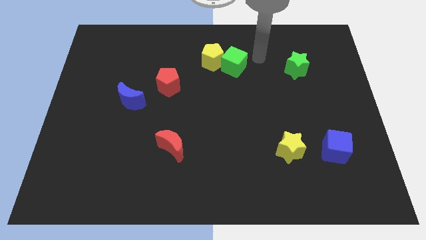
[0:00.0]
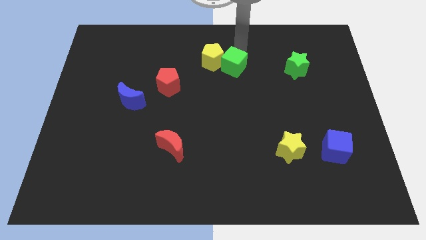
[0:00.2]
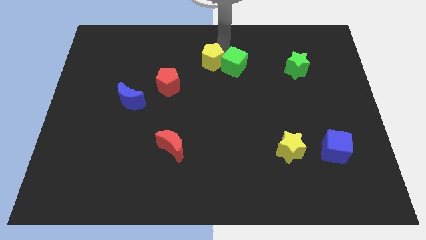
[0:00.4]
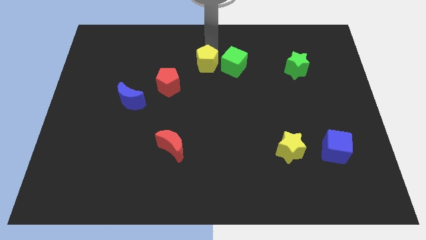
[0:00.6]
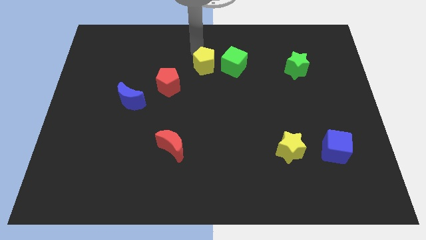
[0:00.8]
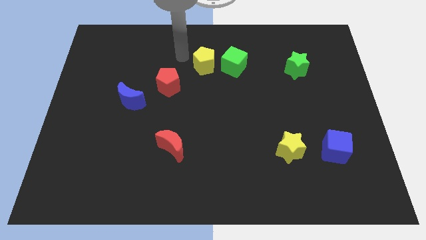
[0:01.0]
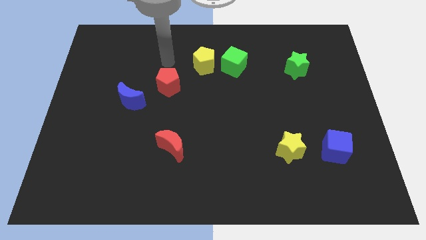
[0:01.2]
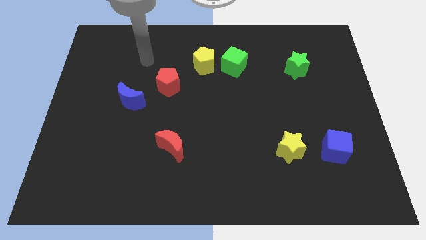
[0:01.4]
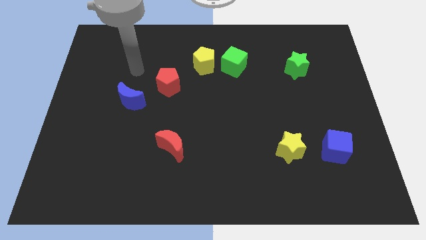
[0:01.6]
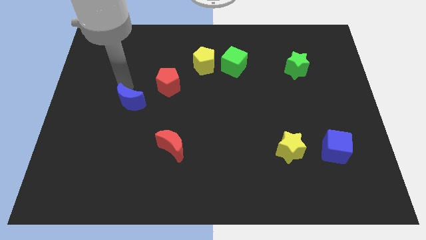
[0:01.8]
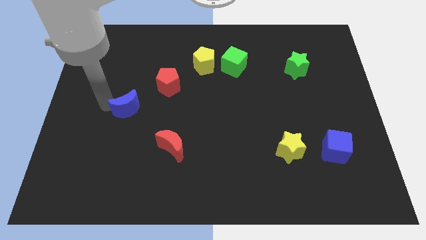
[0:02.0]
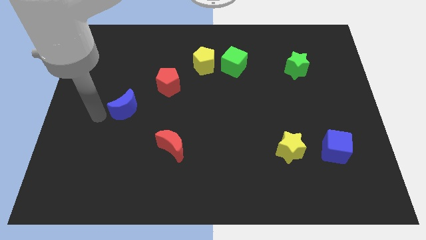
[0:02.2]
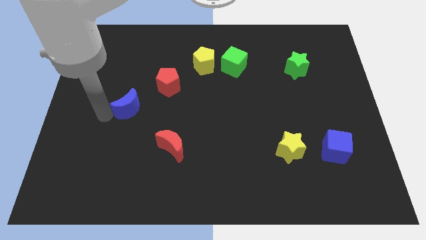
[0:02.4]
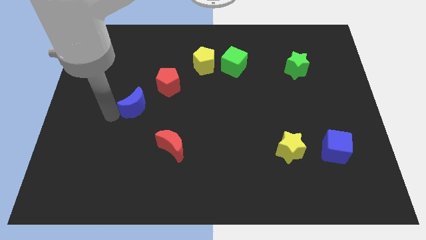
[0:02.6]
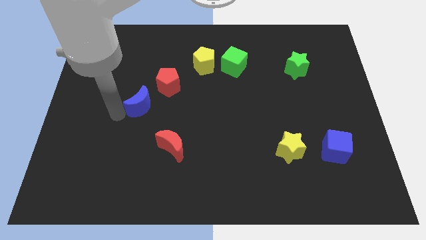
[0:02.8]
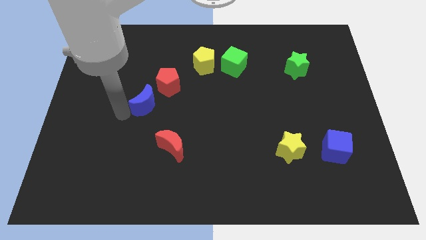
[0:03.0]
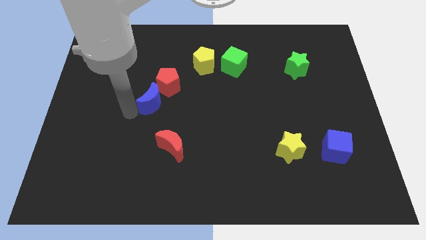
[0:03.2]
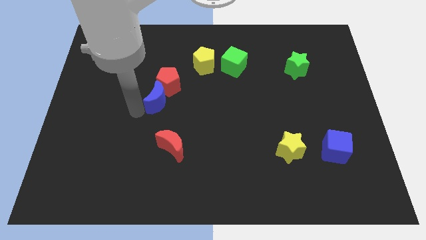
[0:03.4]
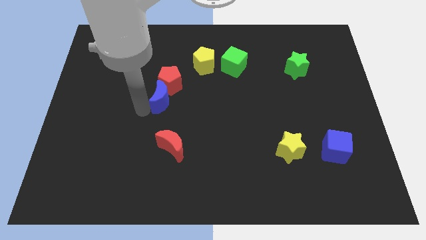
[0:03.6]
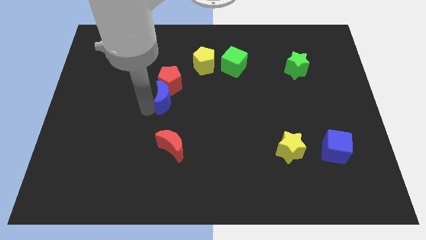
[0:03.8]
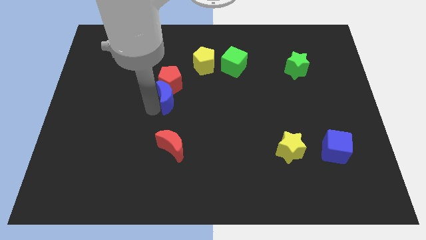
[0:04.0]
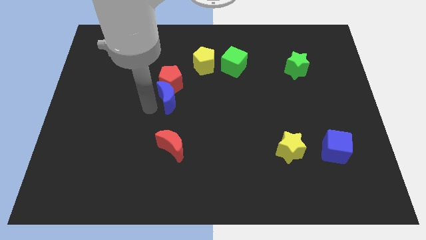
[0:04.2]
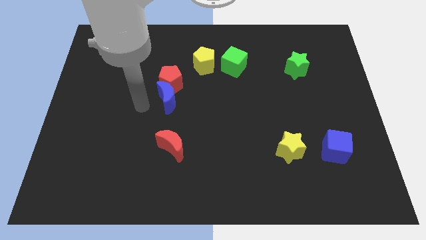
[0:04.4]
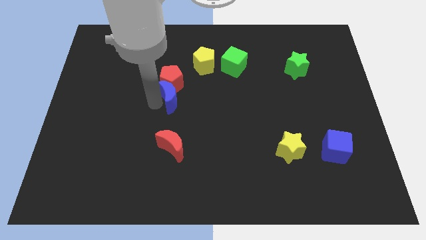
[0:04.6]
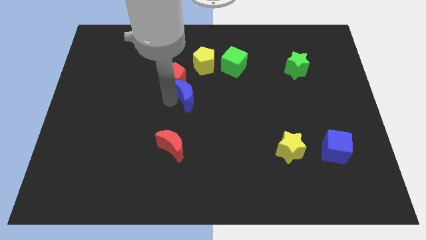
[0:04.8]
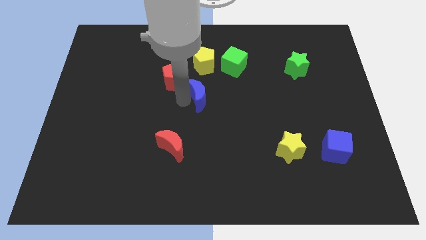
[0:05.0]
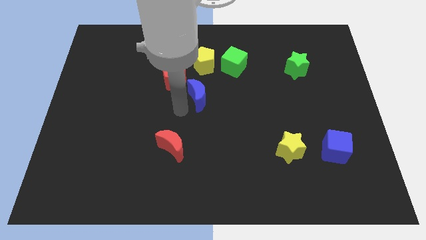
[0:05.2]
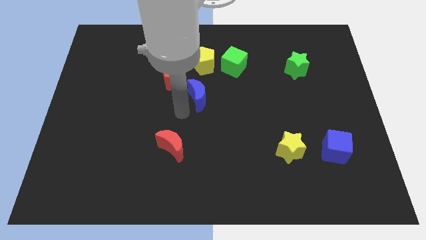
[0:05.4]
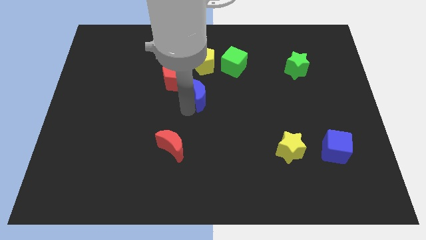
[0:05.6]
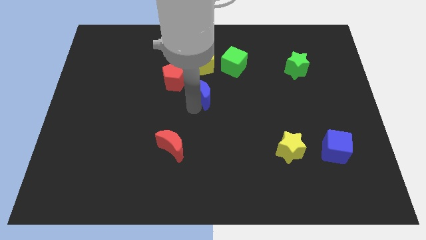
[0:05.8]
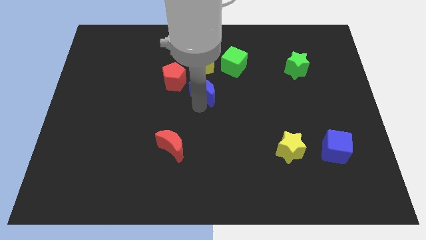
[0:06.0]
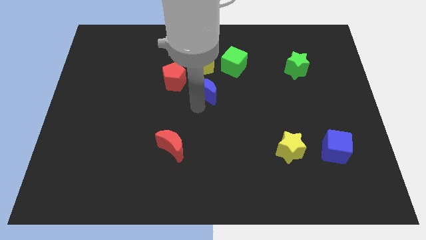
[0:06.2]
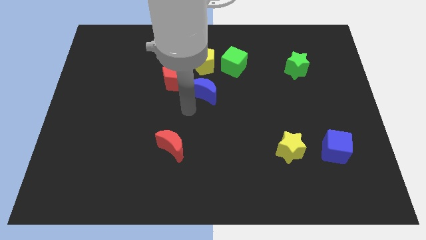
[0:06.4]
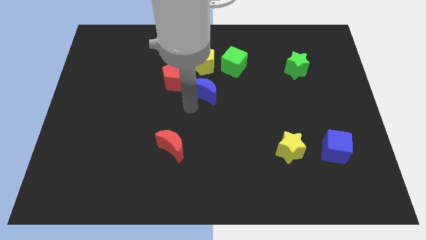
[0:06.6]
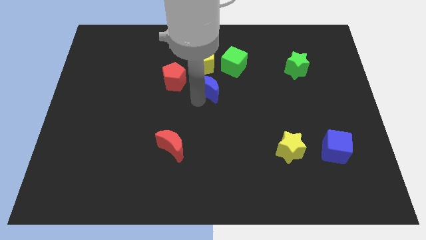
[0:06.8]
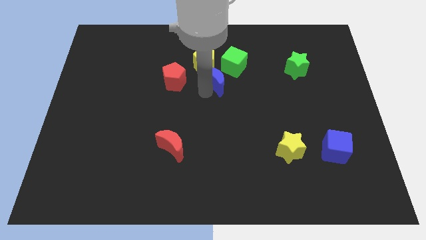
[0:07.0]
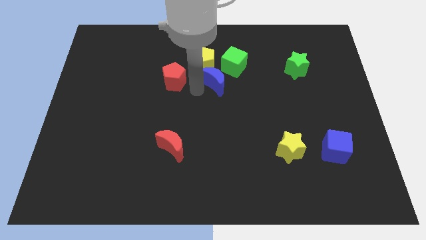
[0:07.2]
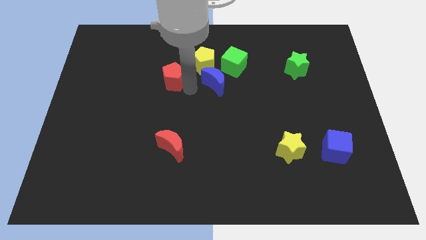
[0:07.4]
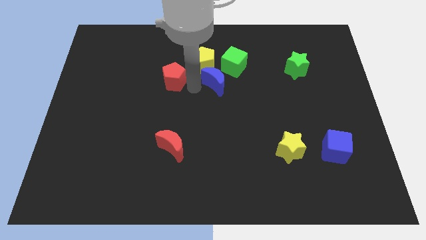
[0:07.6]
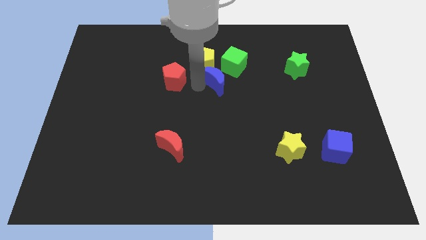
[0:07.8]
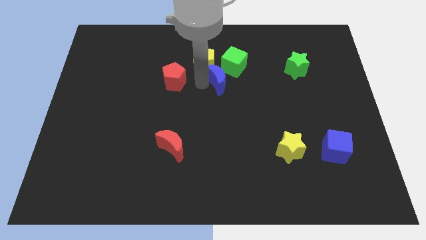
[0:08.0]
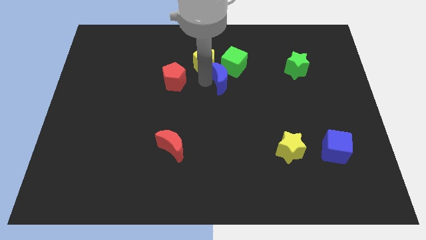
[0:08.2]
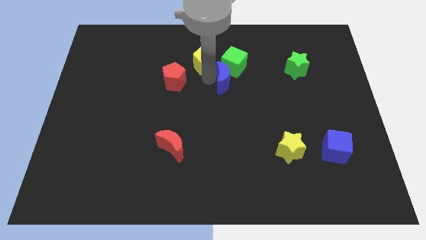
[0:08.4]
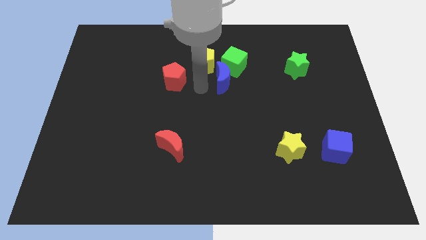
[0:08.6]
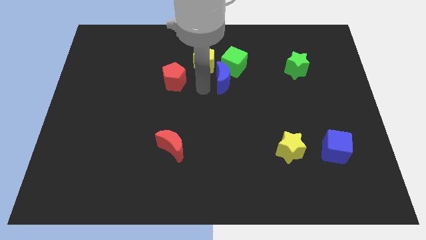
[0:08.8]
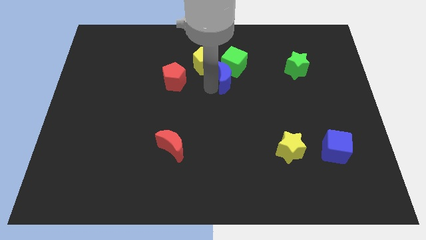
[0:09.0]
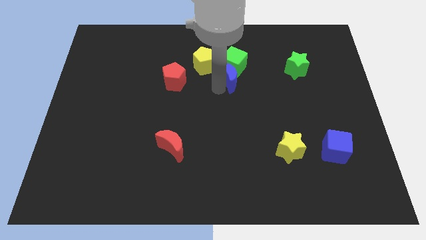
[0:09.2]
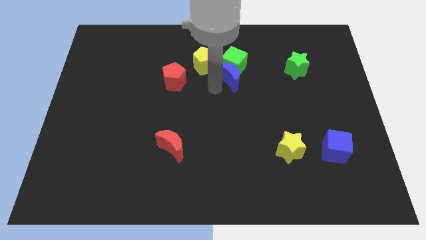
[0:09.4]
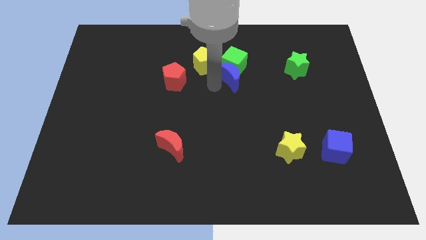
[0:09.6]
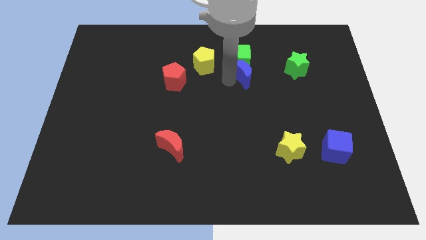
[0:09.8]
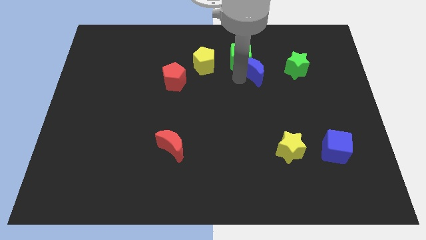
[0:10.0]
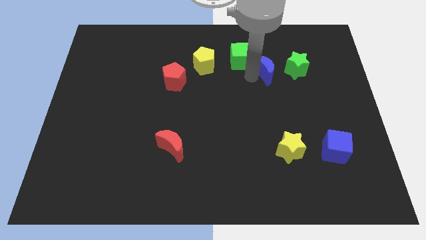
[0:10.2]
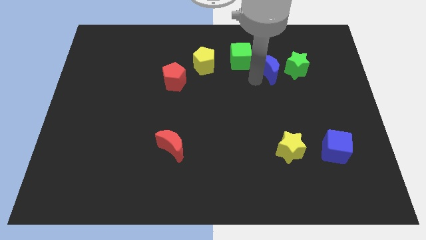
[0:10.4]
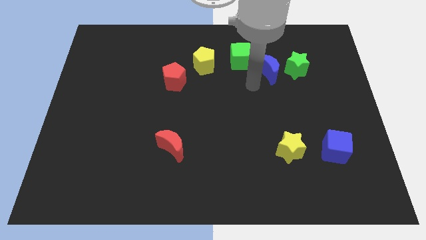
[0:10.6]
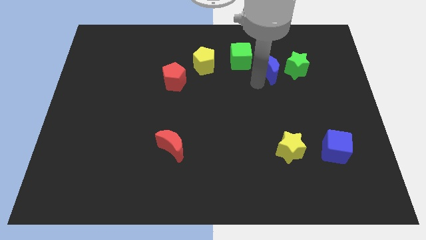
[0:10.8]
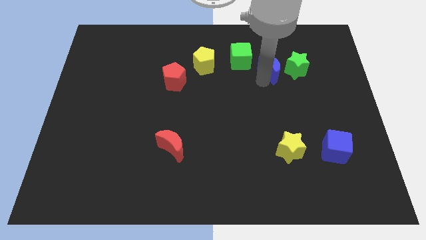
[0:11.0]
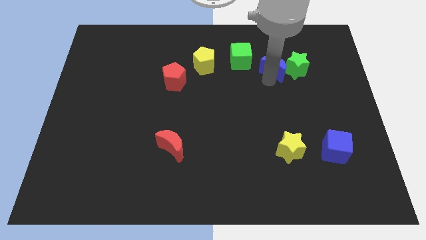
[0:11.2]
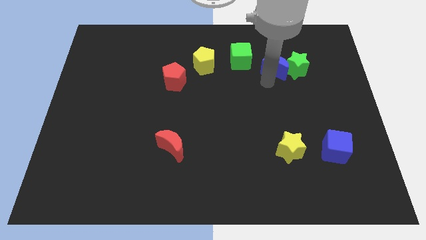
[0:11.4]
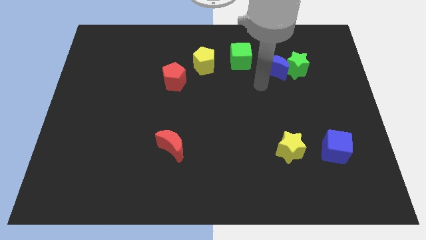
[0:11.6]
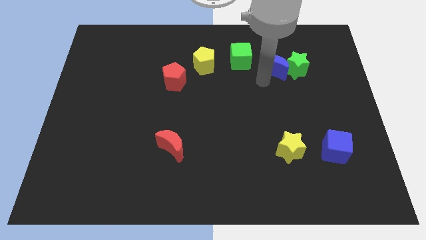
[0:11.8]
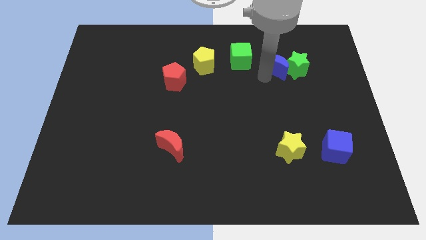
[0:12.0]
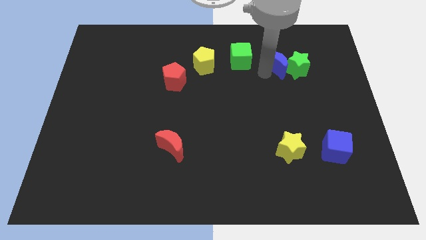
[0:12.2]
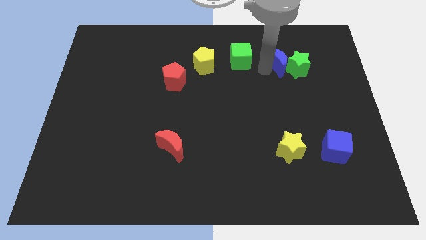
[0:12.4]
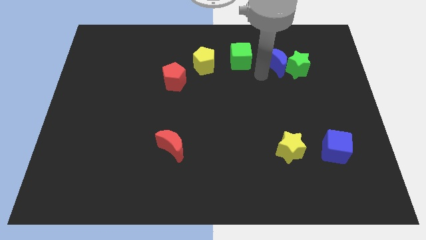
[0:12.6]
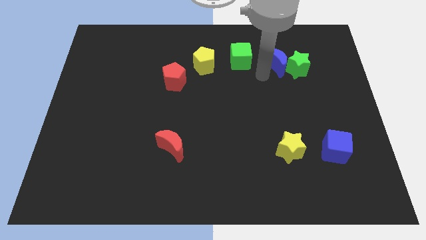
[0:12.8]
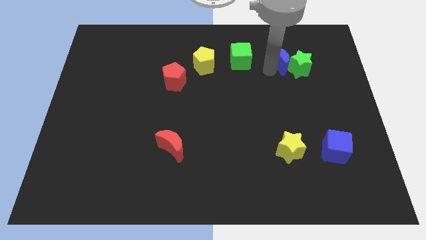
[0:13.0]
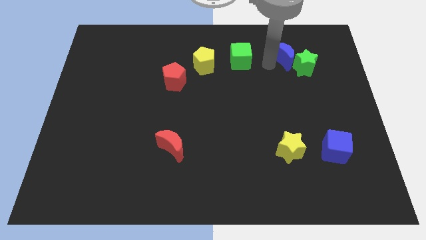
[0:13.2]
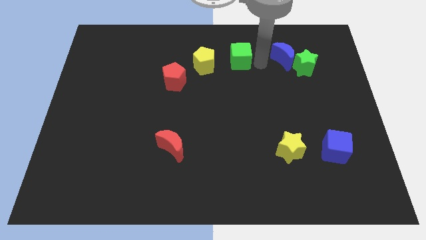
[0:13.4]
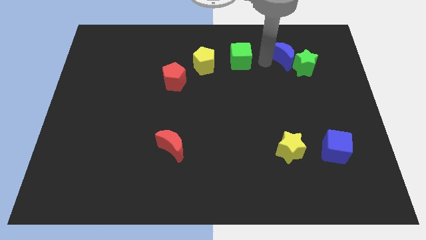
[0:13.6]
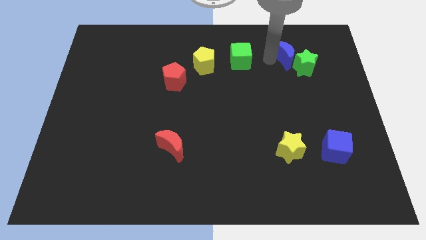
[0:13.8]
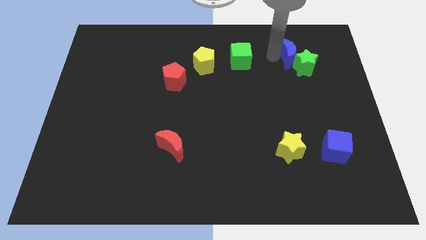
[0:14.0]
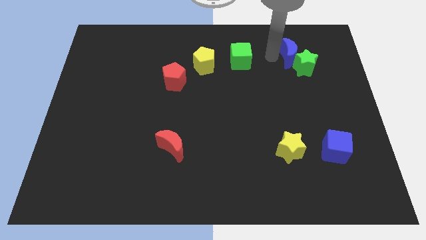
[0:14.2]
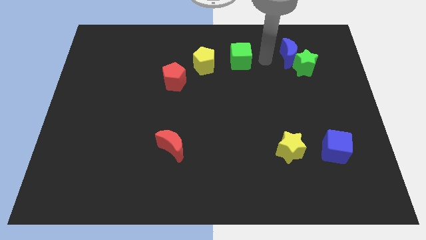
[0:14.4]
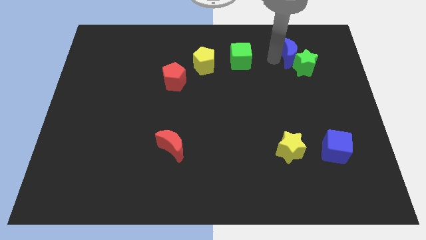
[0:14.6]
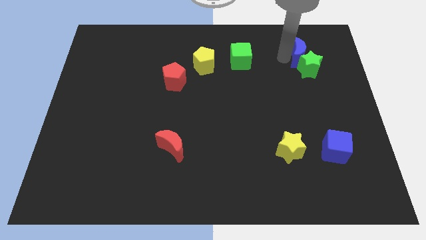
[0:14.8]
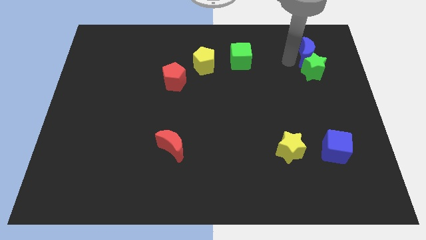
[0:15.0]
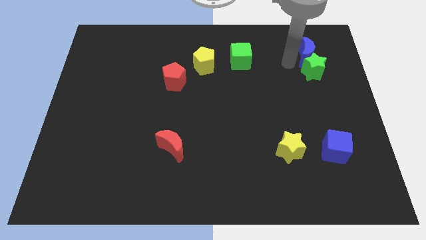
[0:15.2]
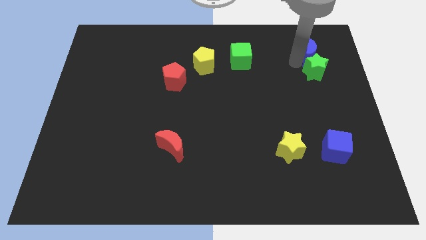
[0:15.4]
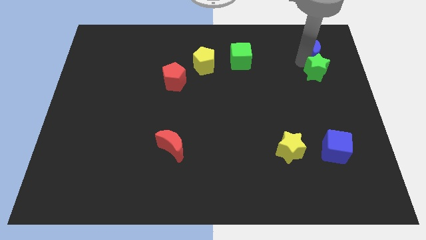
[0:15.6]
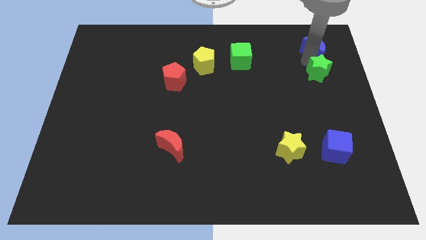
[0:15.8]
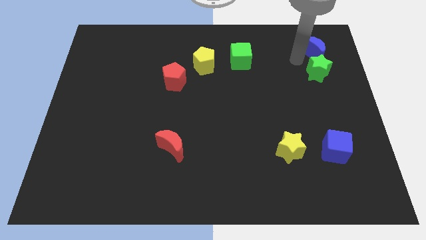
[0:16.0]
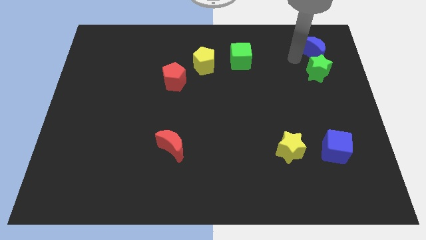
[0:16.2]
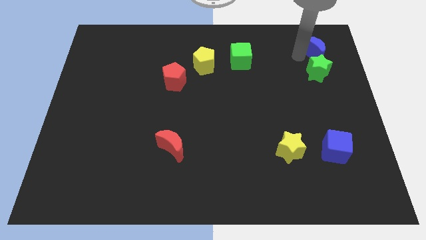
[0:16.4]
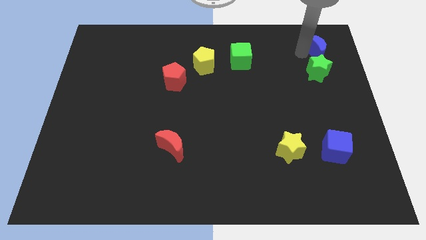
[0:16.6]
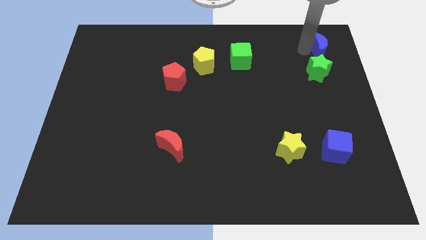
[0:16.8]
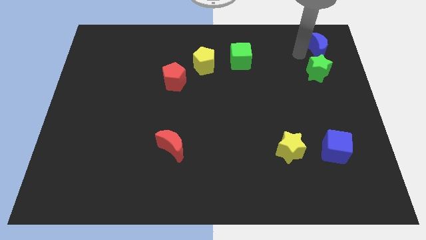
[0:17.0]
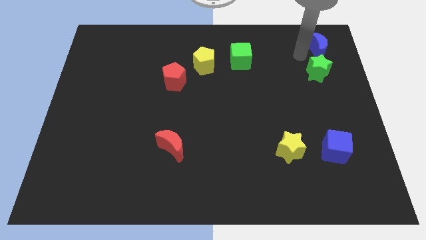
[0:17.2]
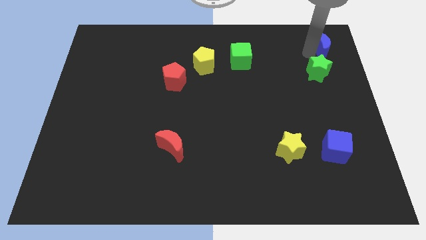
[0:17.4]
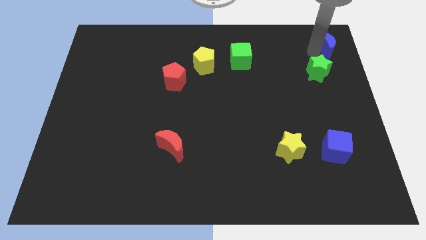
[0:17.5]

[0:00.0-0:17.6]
push the blue moon to the top right corner
